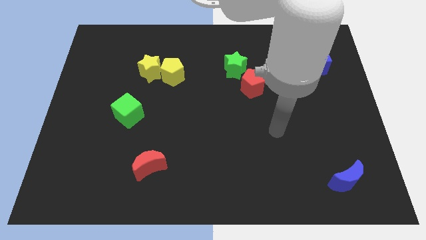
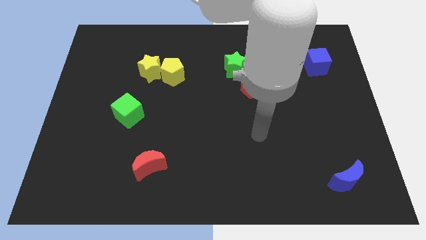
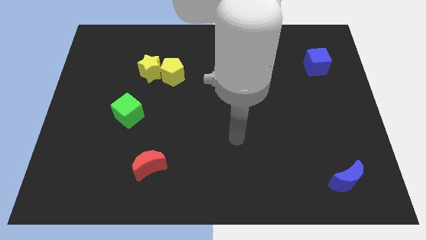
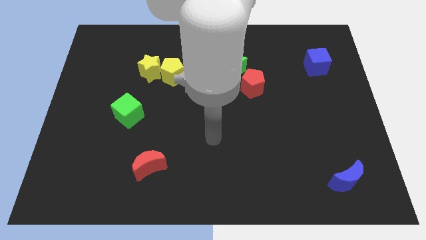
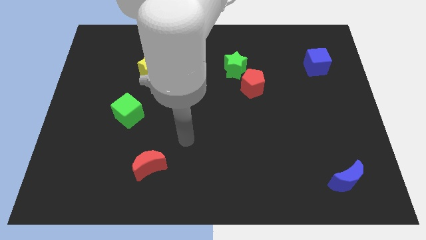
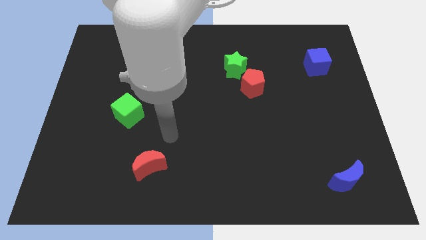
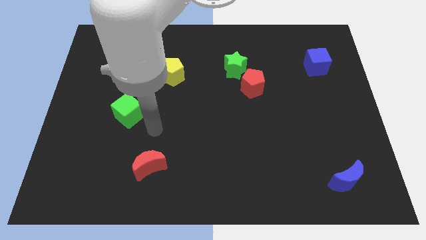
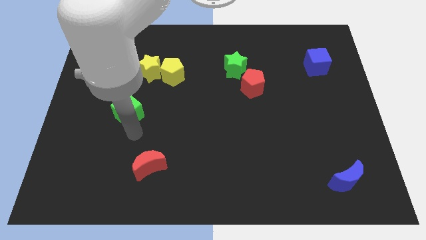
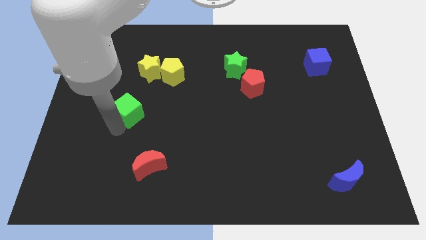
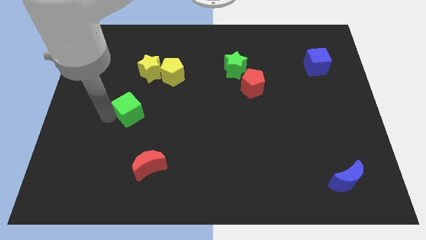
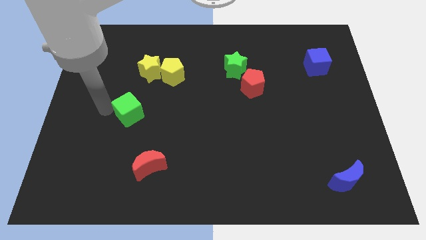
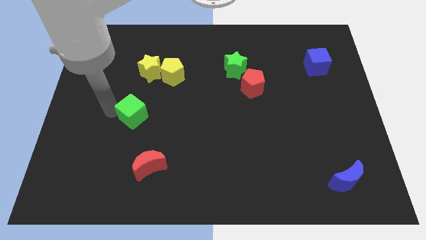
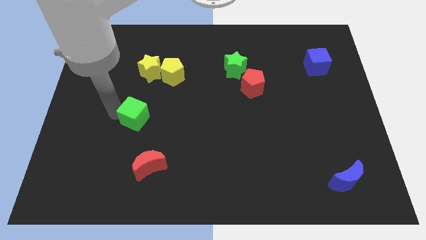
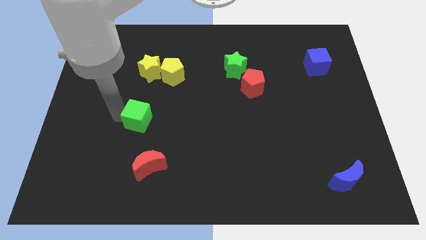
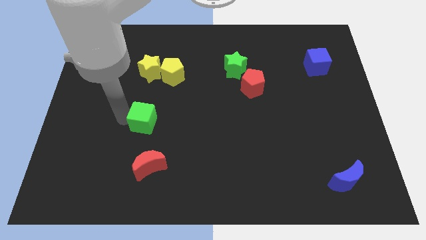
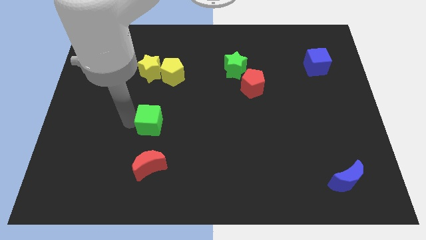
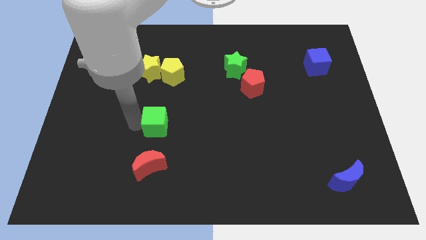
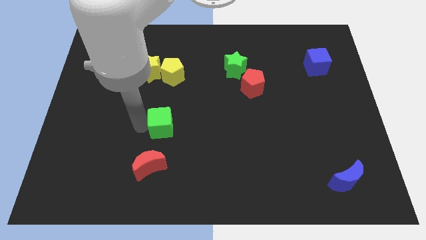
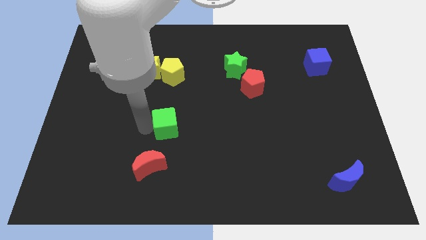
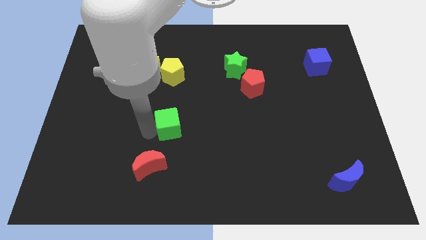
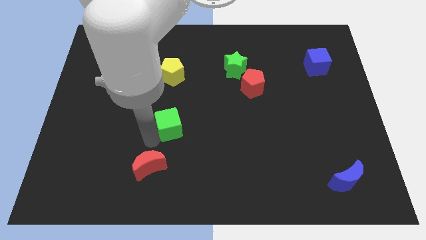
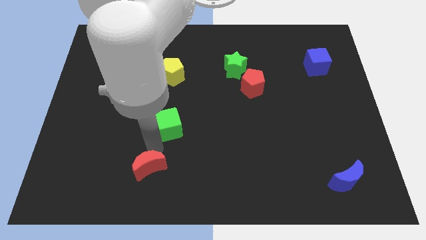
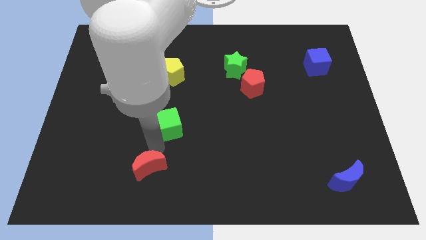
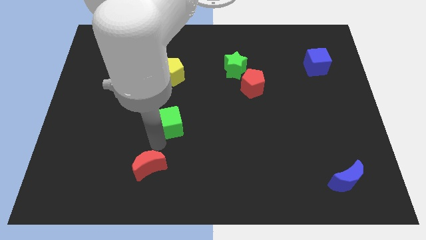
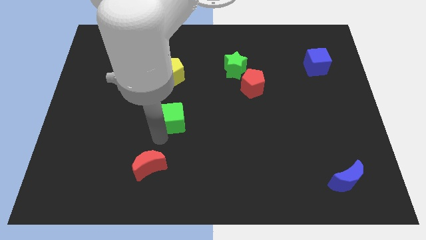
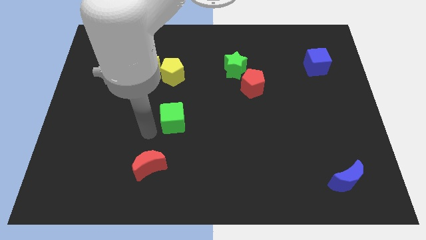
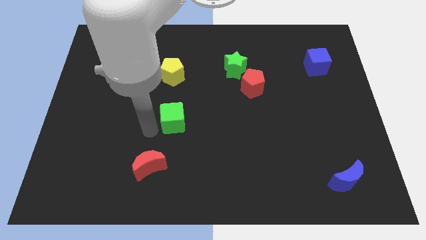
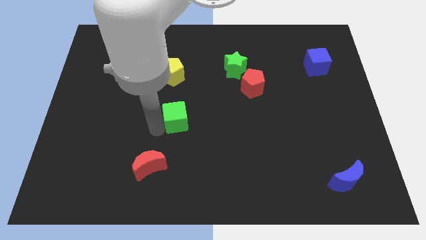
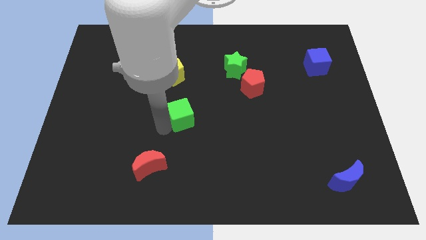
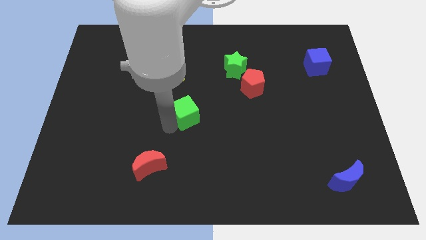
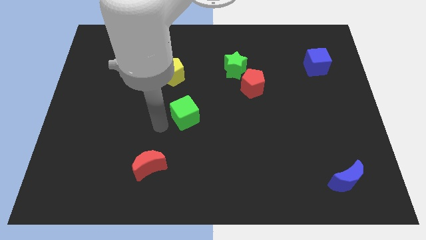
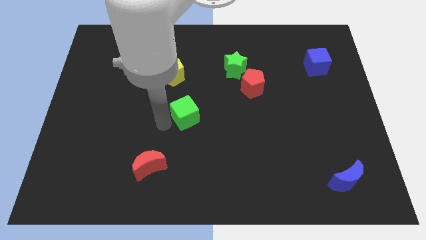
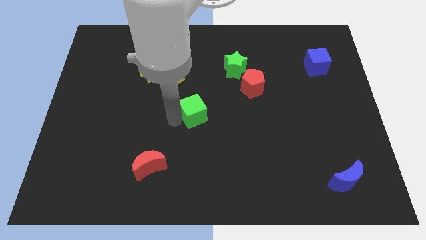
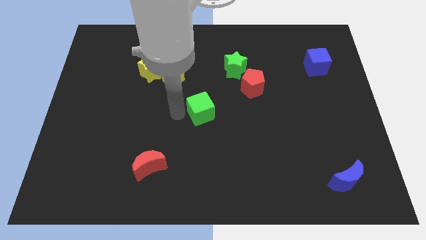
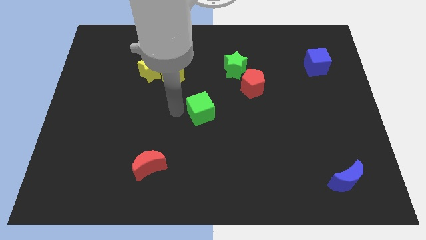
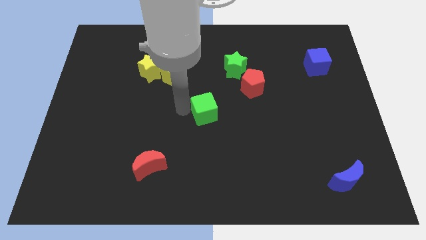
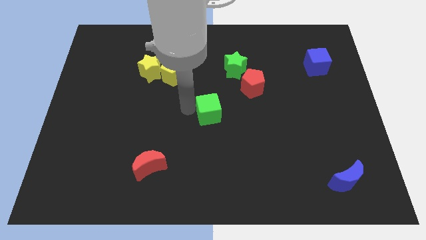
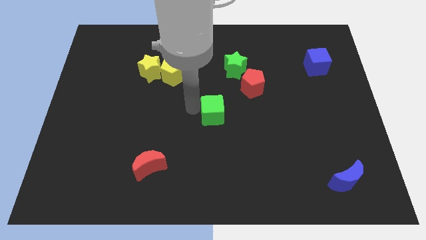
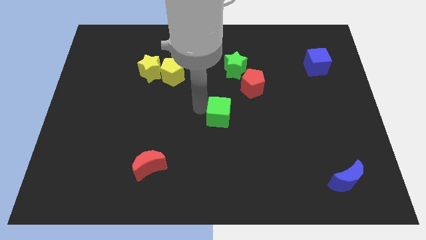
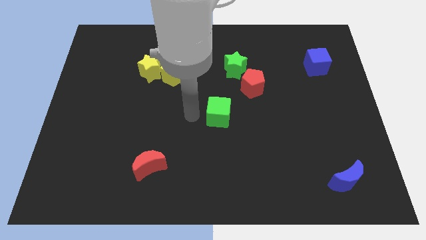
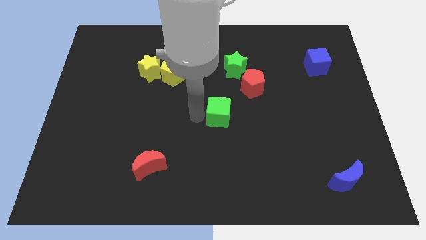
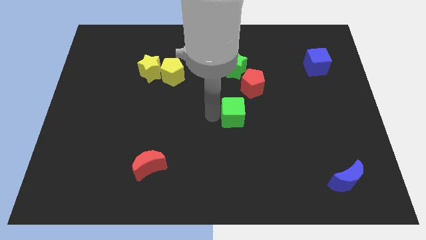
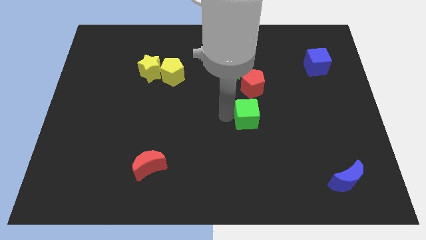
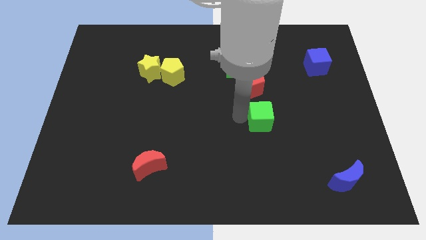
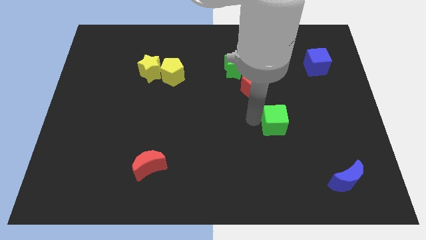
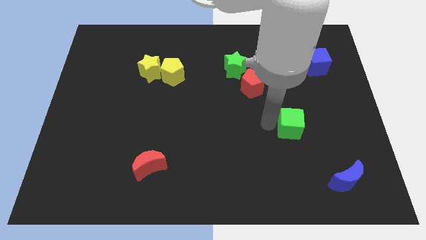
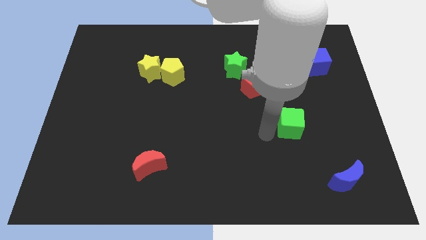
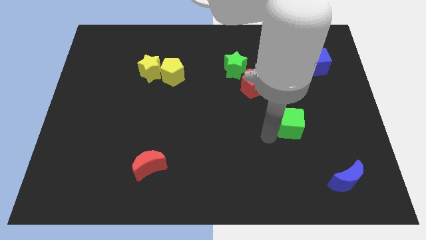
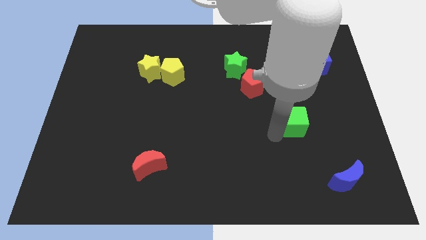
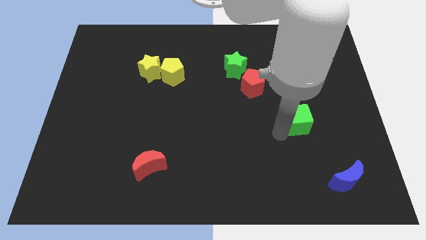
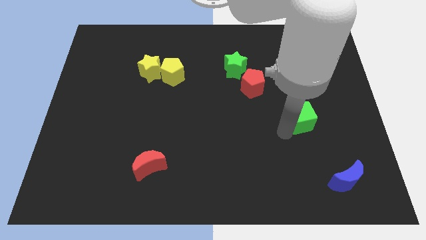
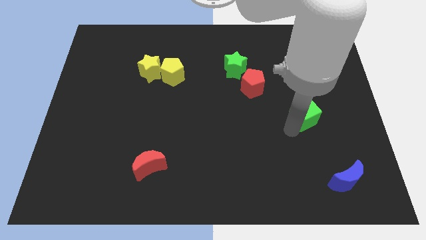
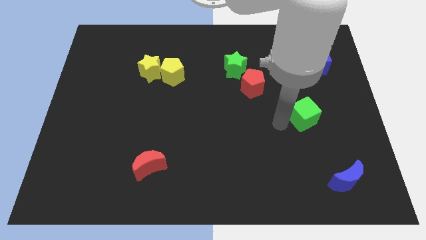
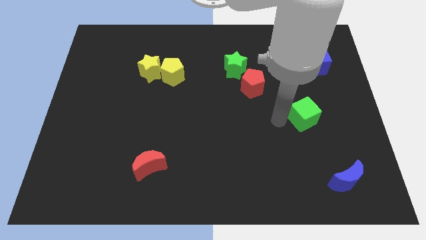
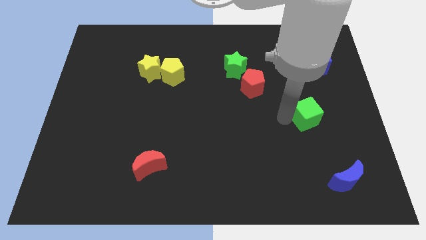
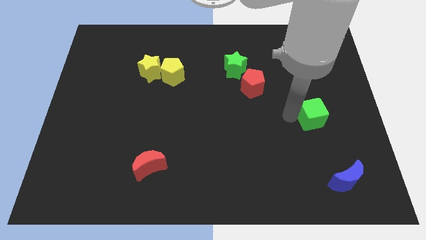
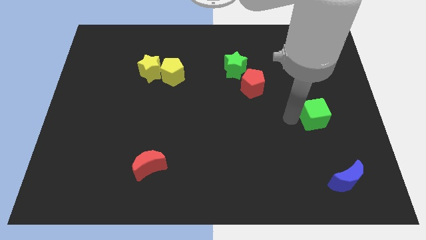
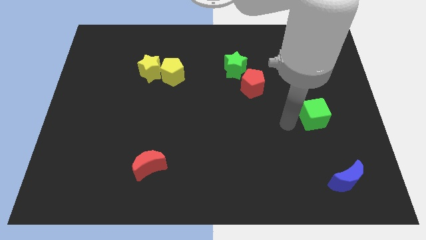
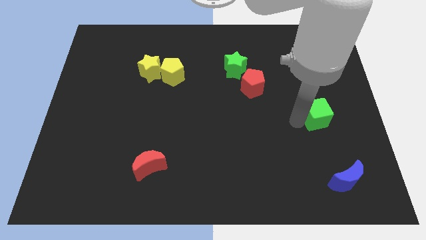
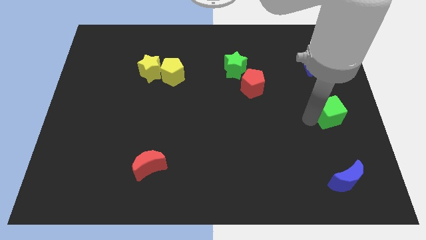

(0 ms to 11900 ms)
move the green cube to the right side of the board

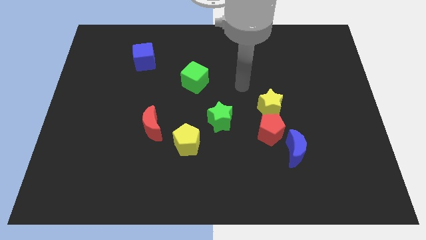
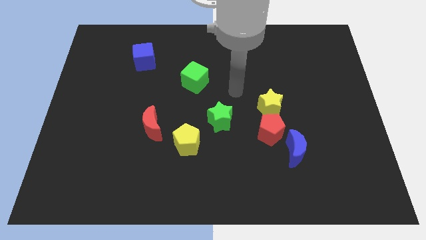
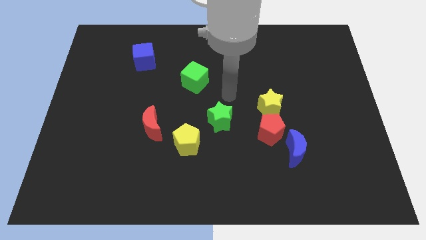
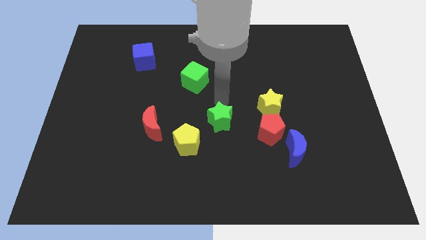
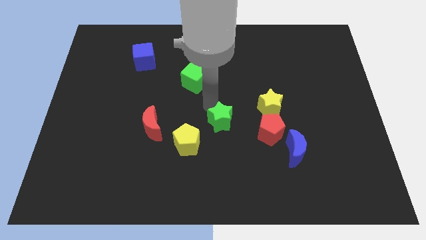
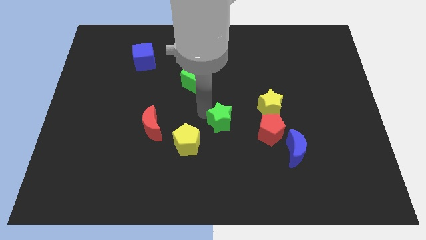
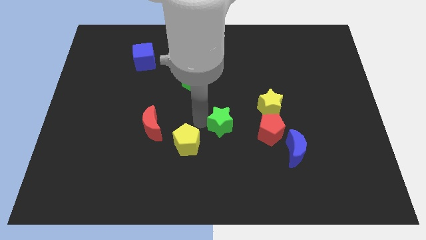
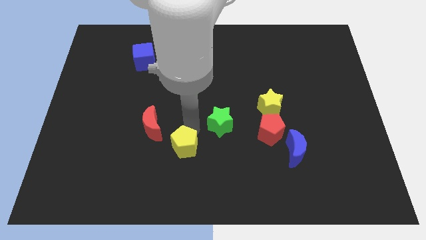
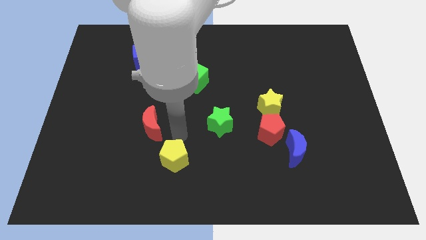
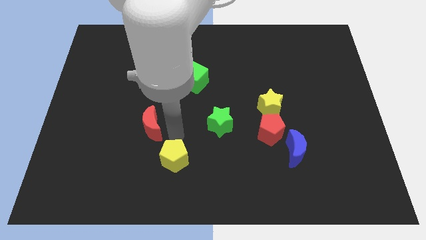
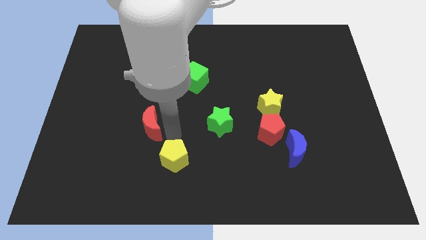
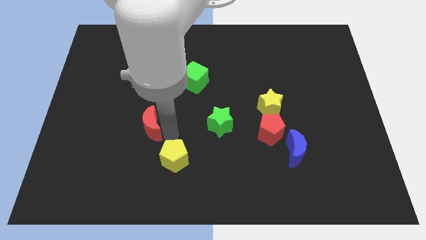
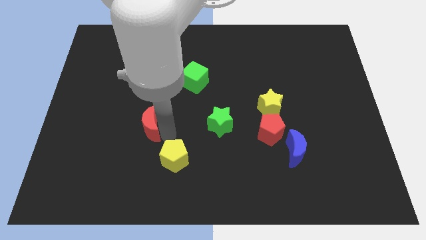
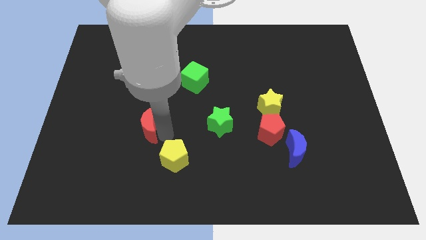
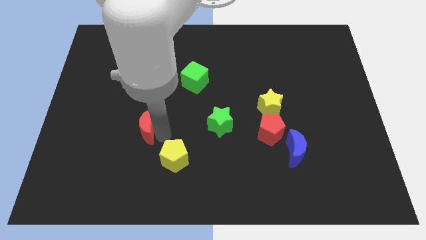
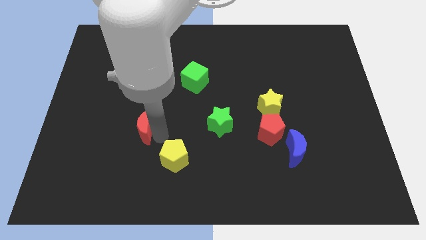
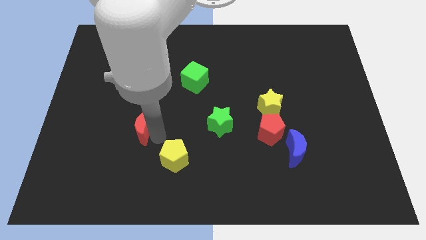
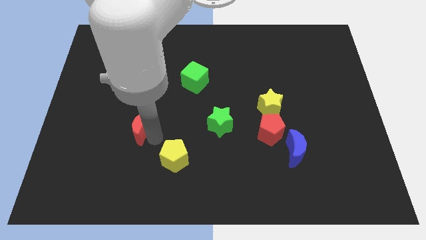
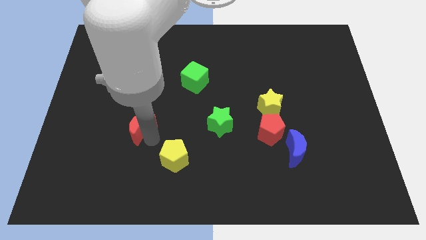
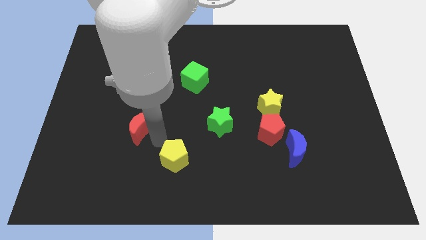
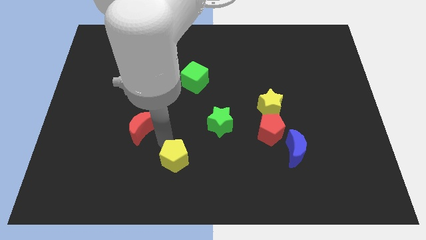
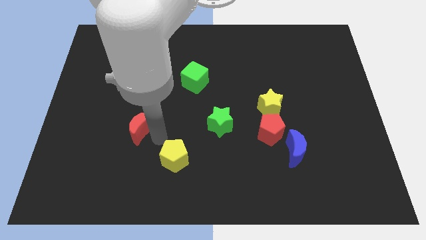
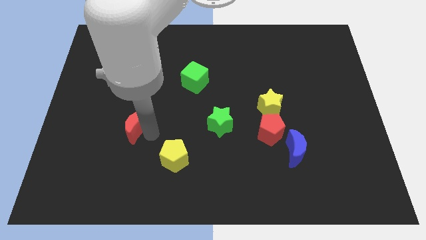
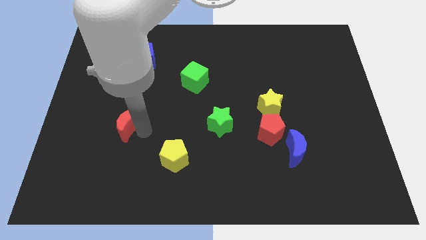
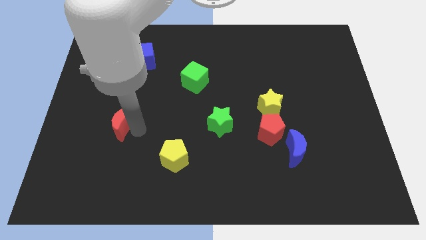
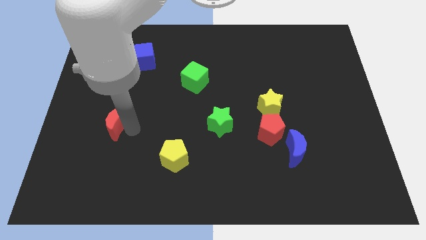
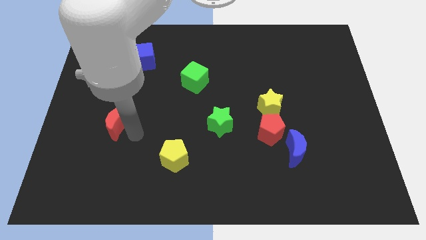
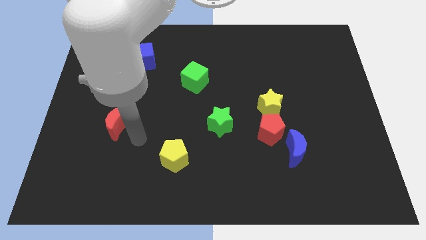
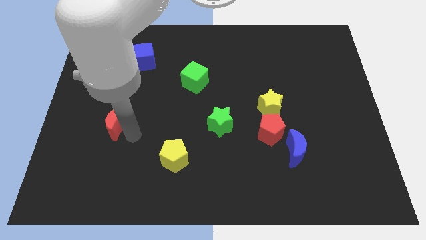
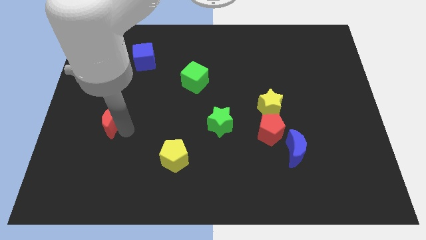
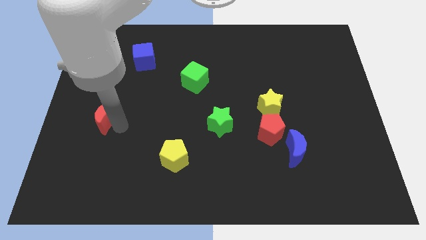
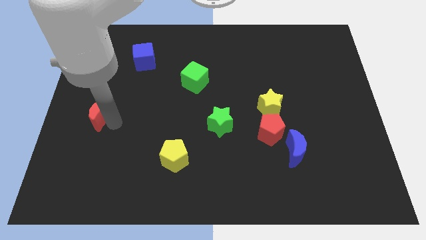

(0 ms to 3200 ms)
slide the red moon to the center left
